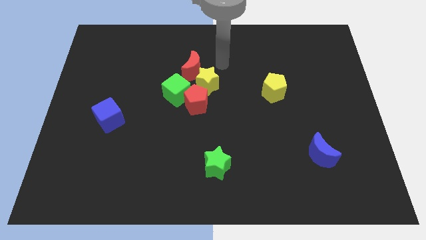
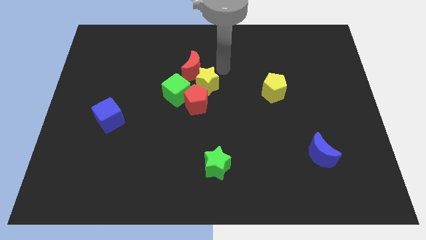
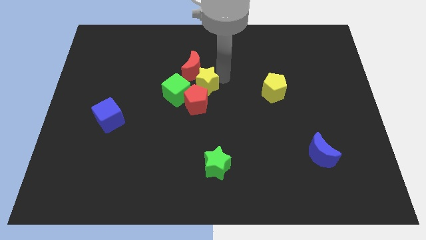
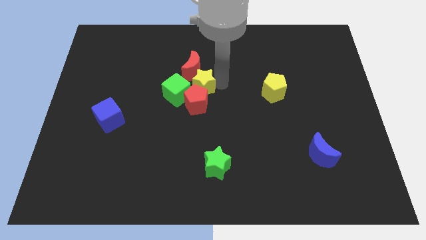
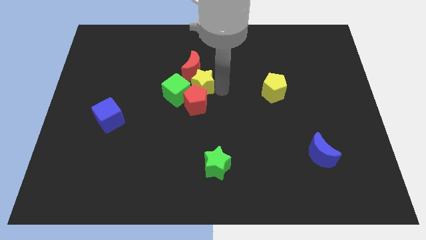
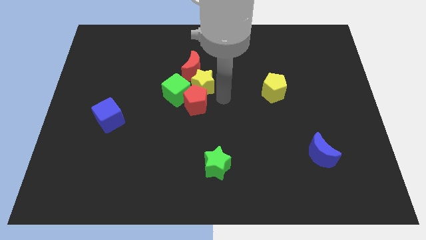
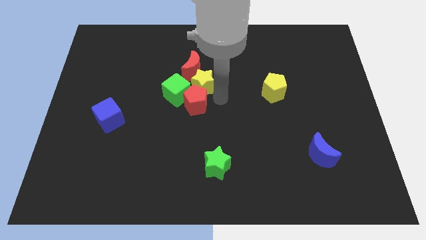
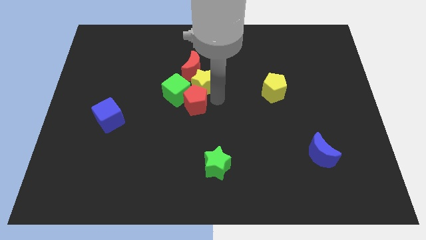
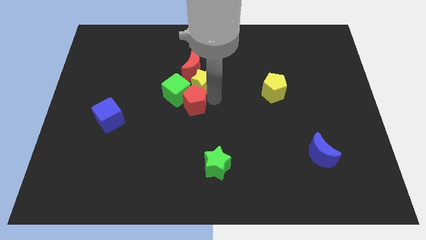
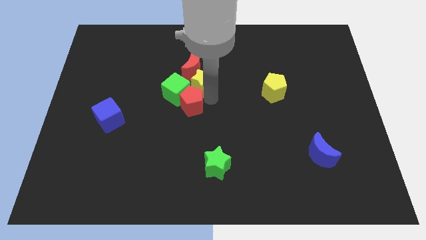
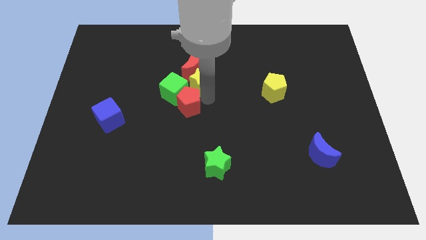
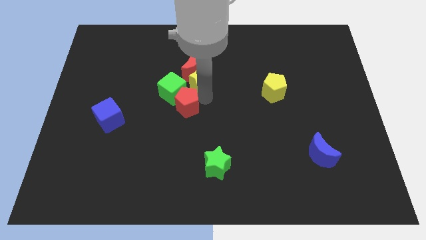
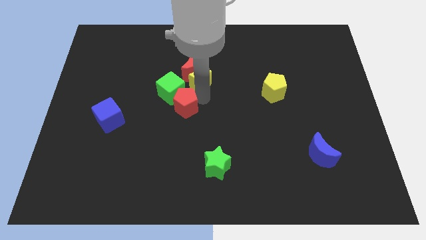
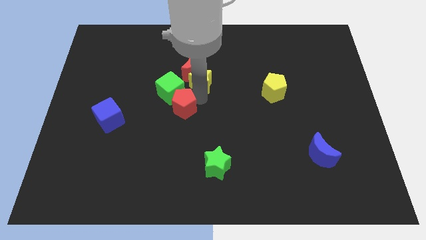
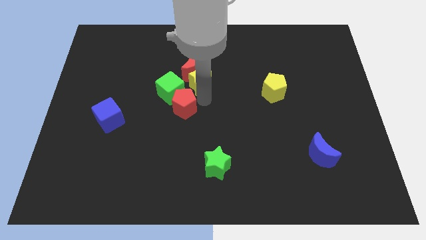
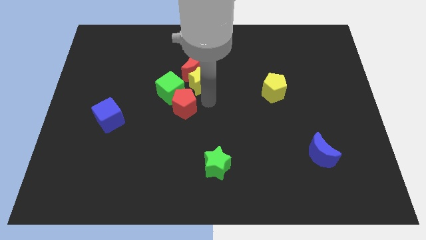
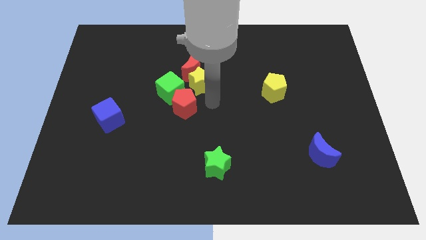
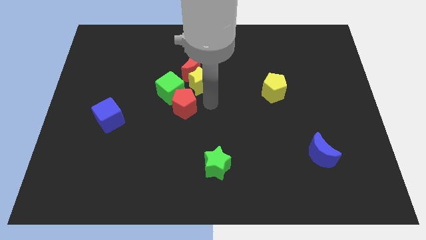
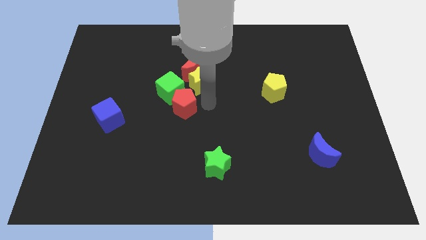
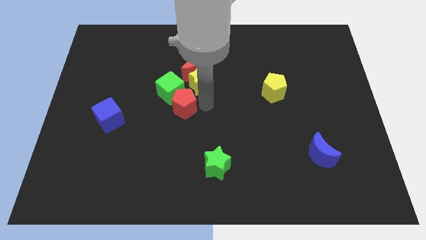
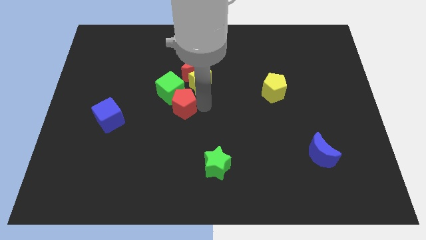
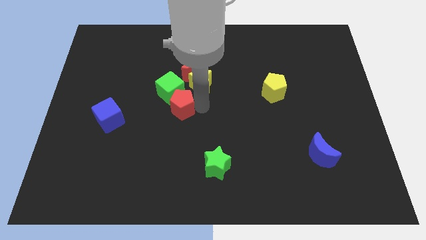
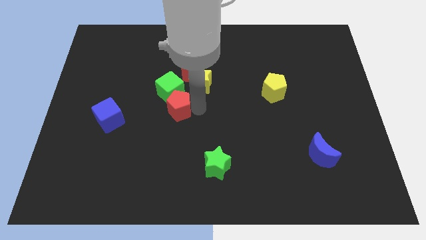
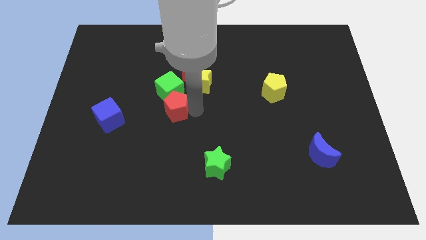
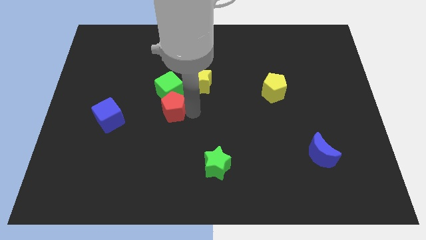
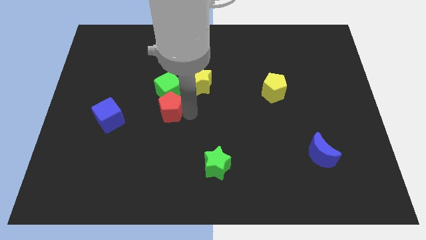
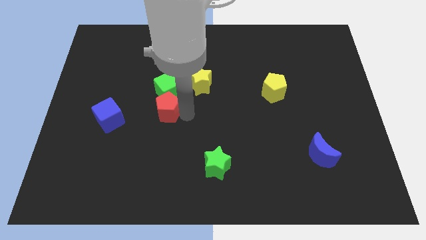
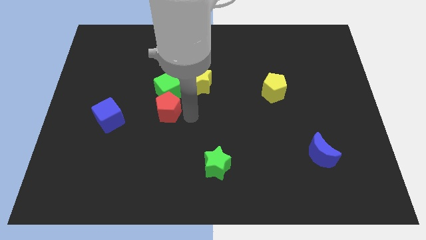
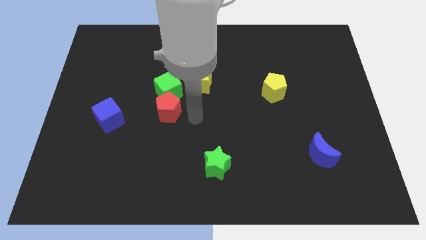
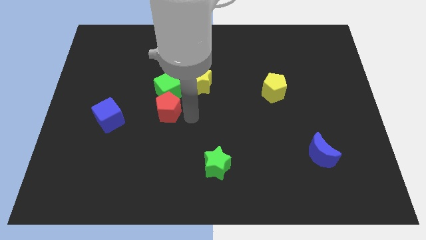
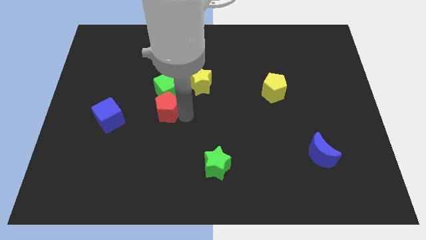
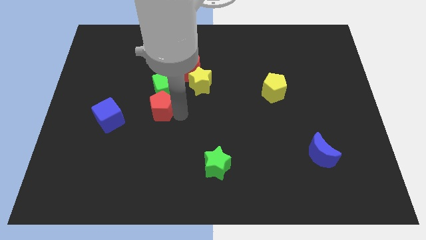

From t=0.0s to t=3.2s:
slide the red pentagon a little bit left

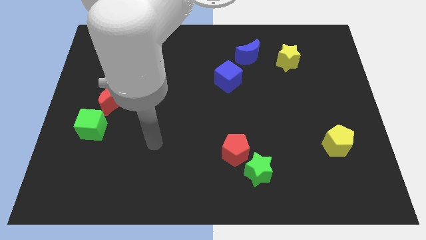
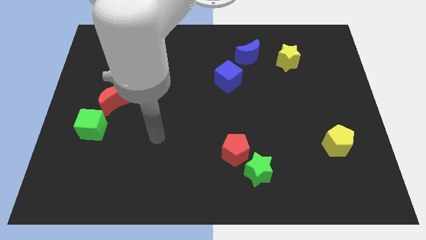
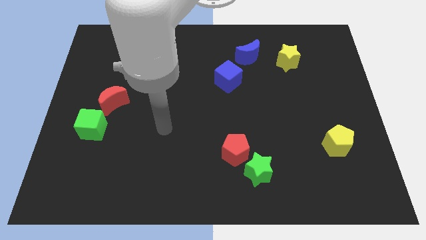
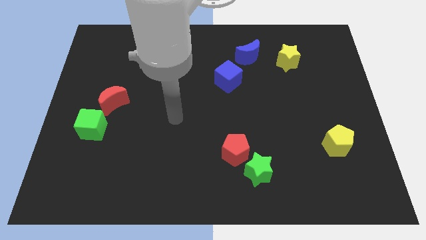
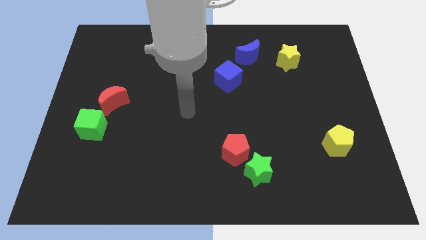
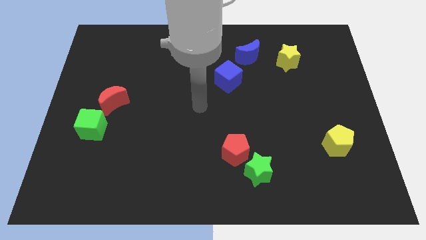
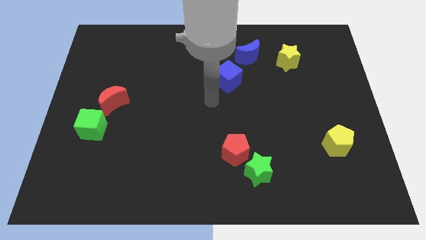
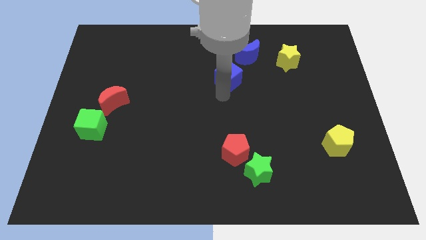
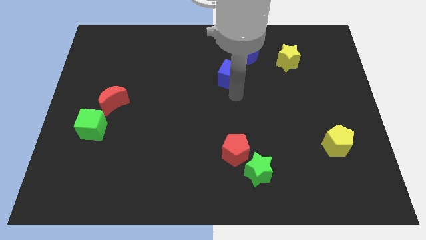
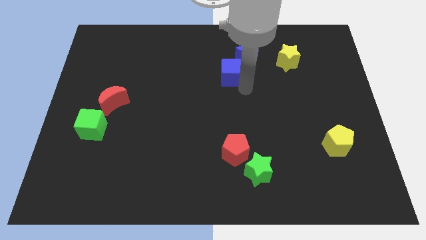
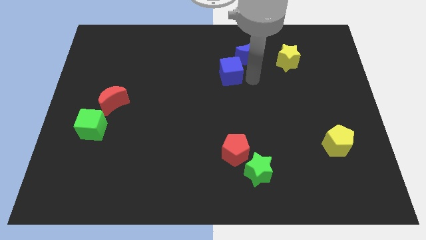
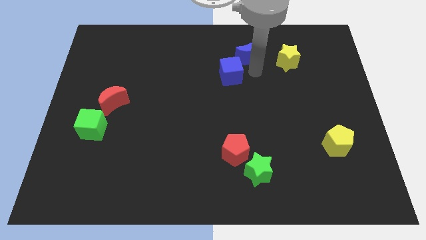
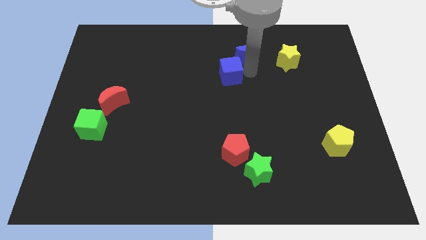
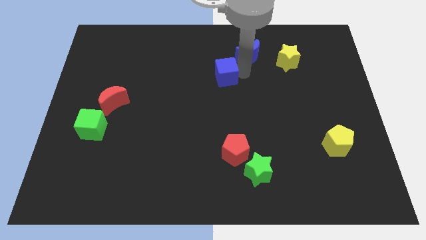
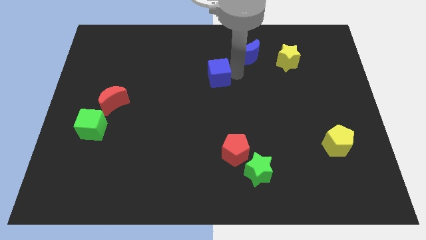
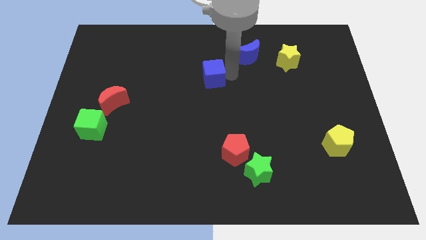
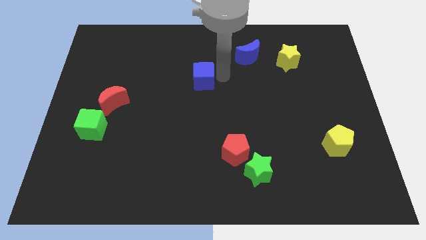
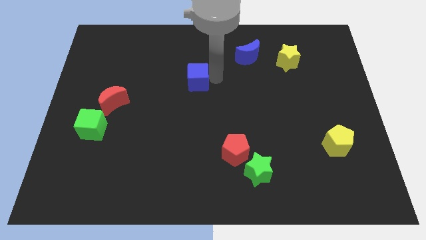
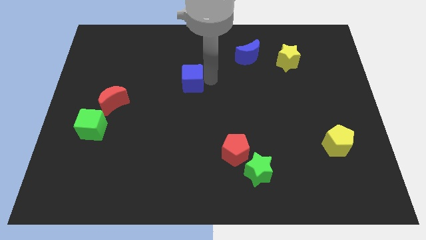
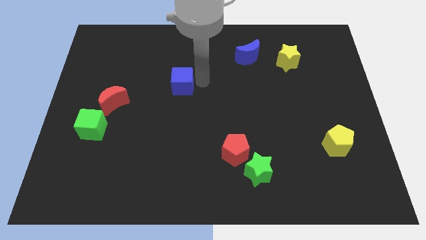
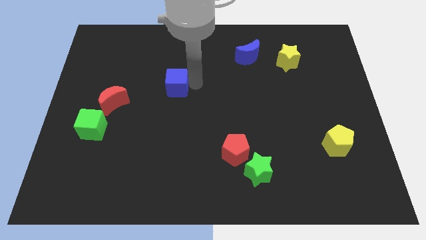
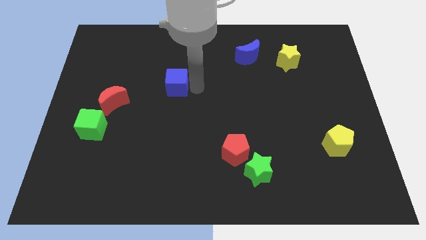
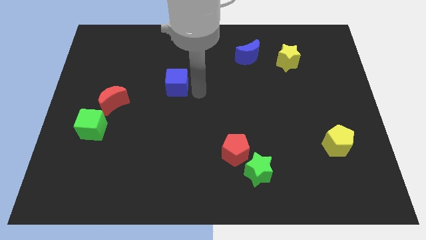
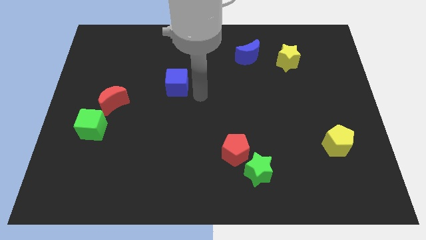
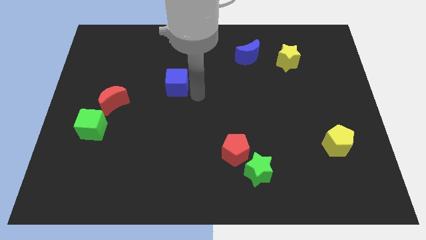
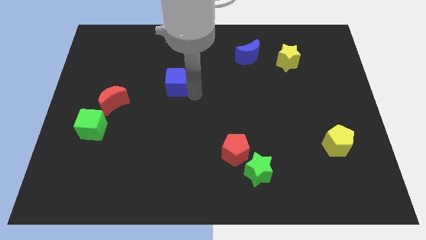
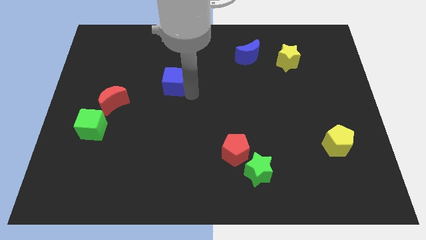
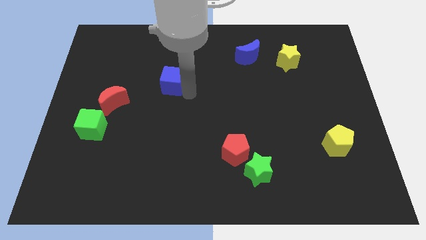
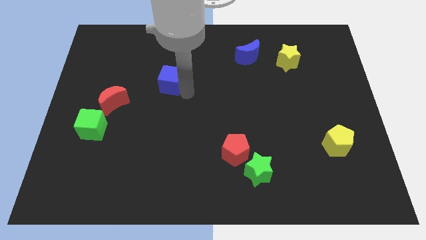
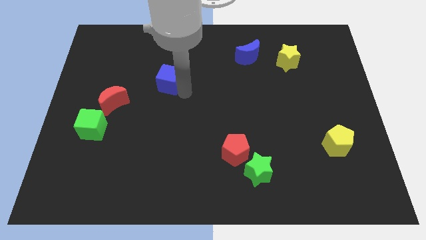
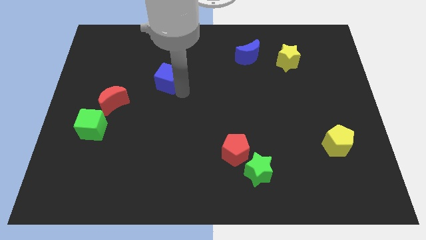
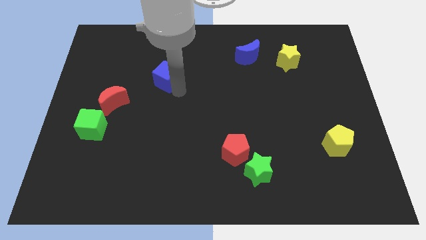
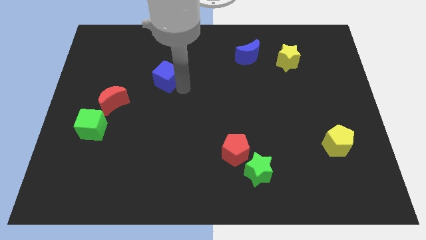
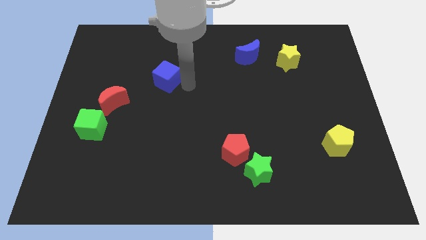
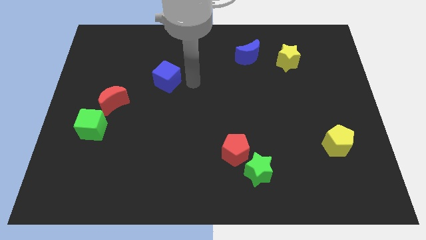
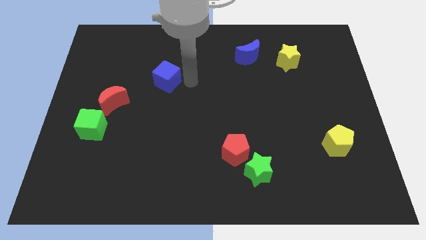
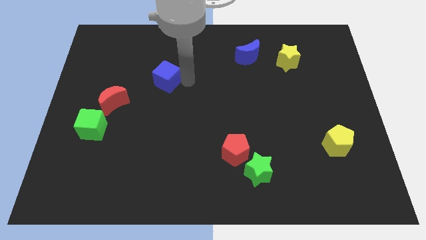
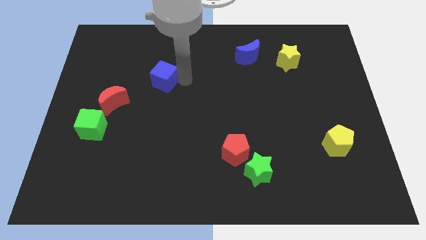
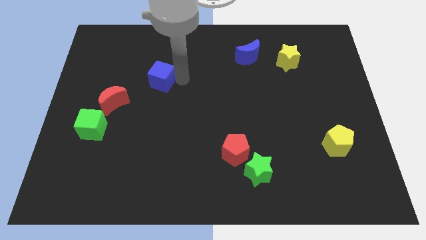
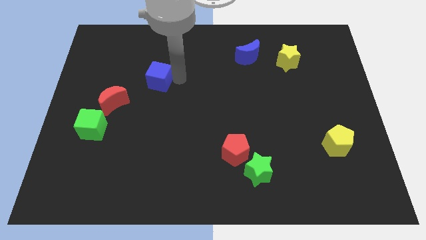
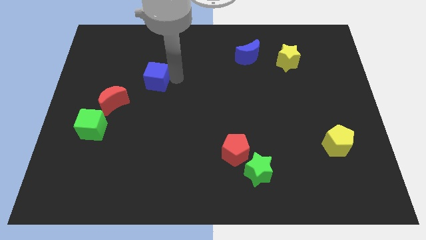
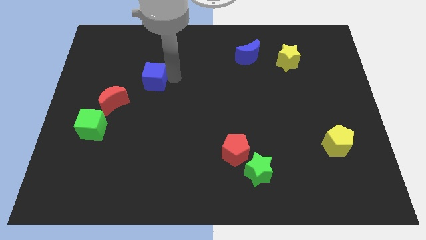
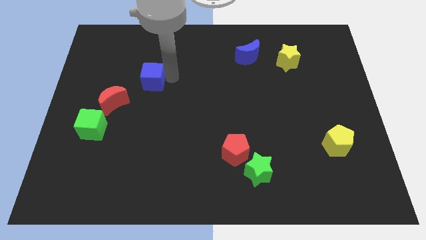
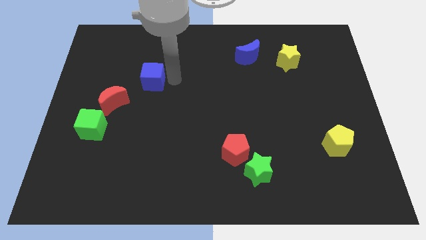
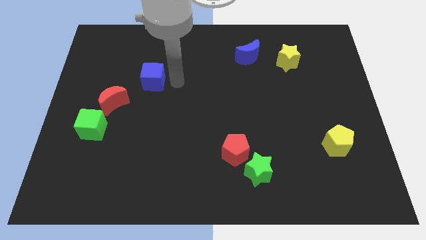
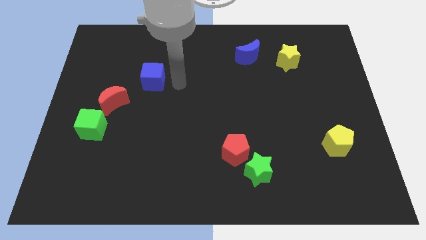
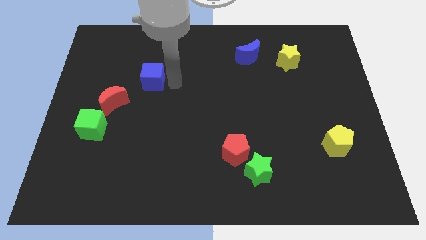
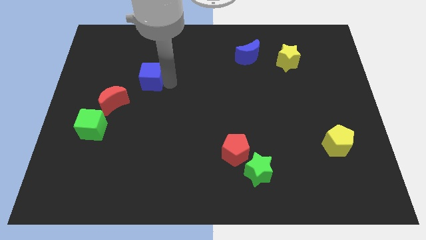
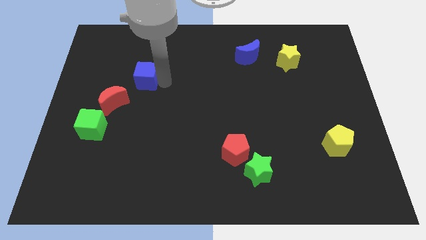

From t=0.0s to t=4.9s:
slide the blue cube left
